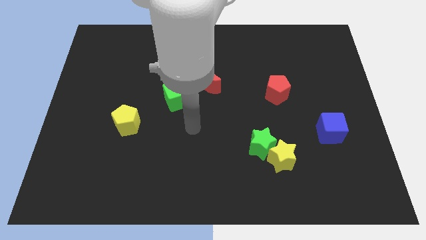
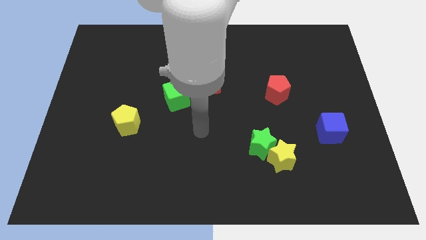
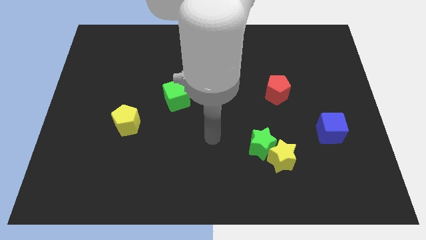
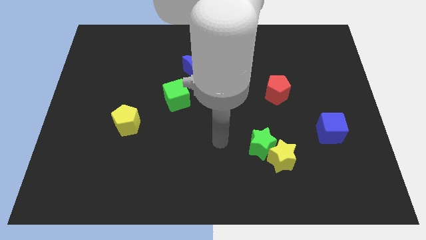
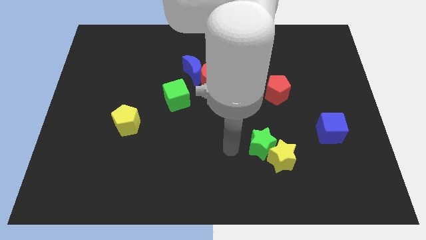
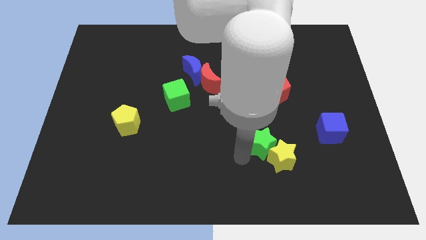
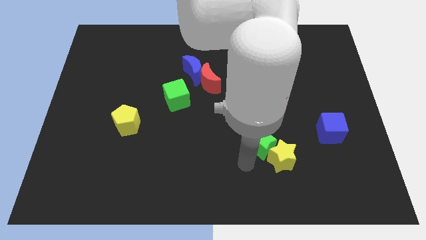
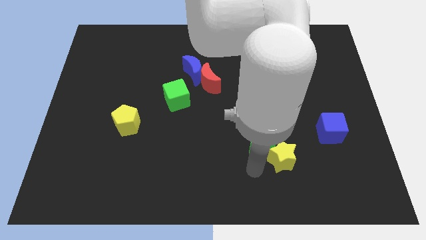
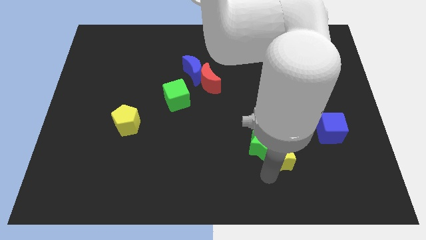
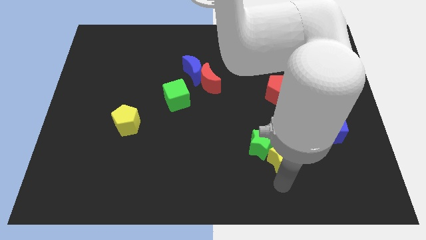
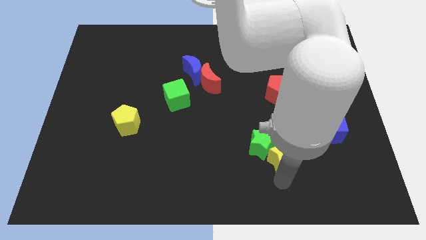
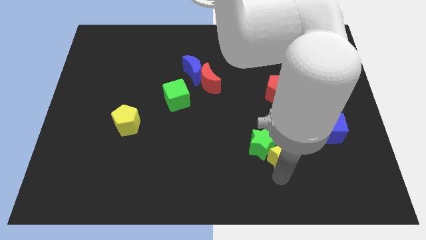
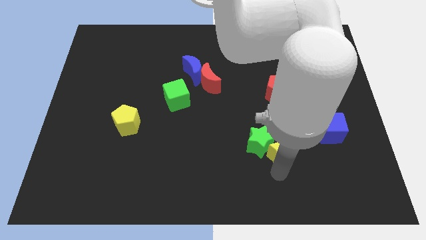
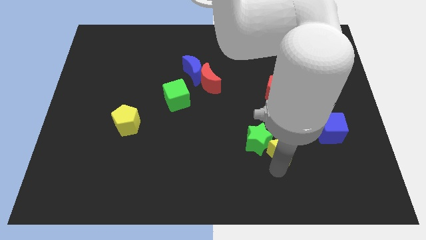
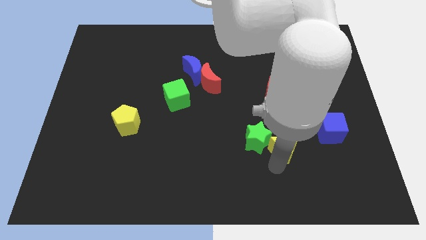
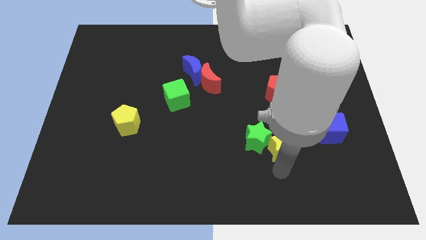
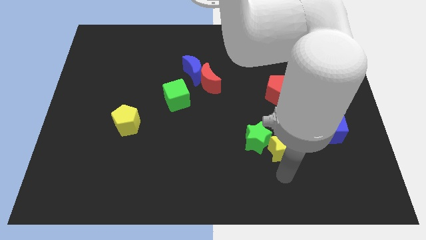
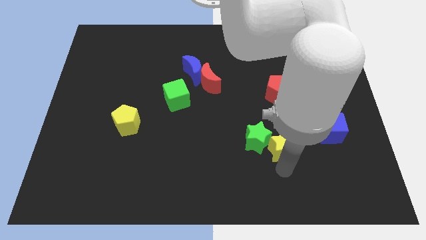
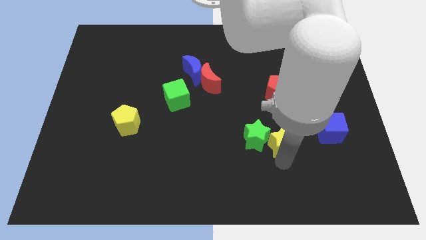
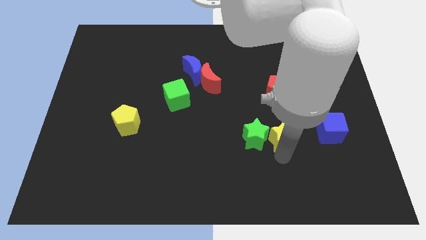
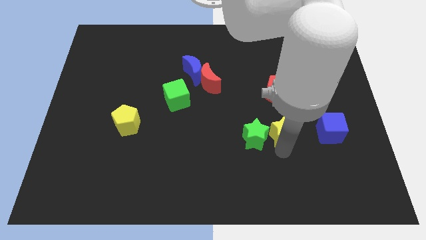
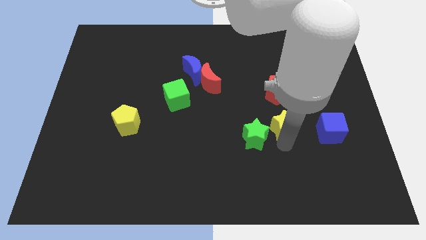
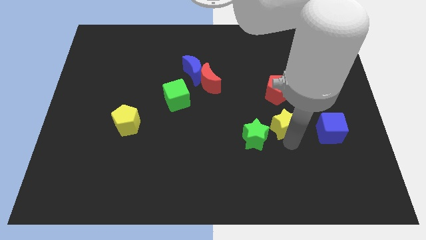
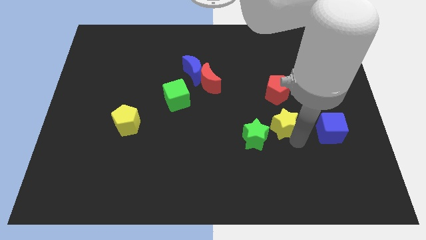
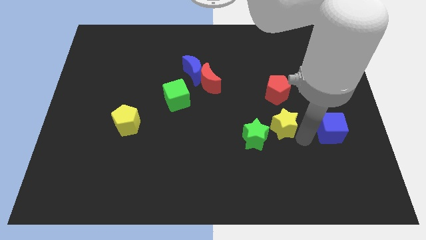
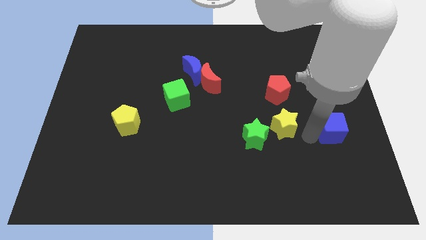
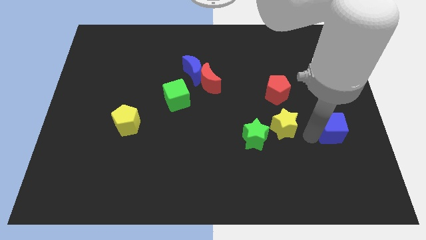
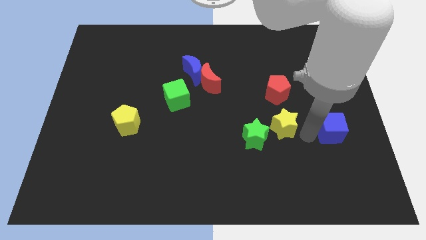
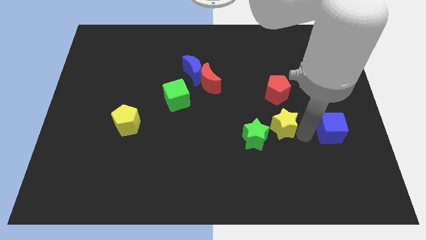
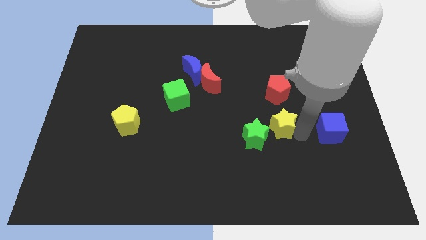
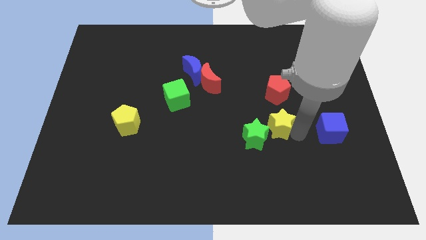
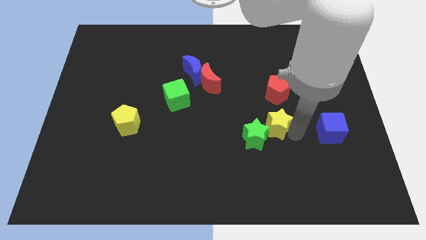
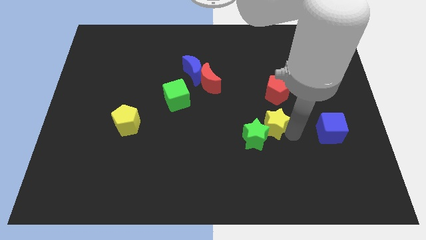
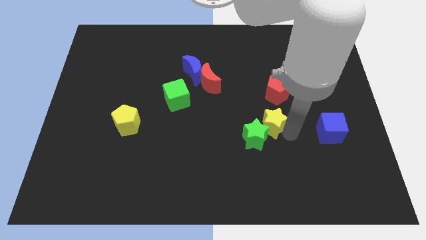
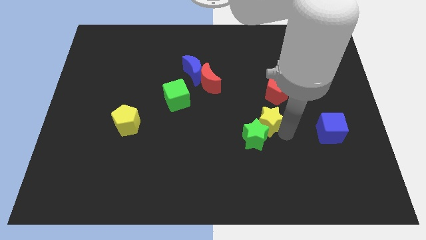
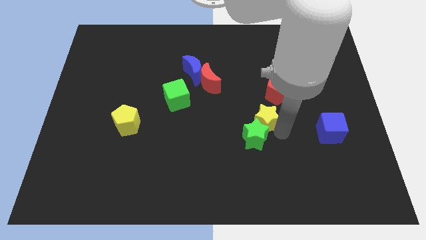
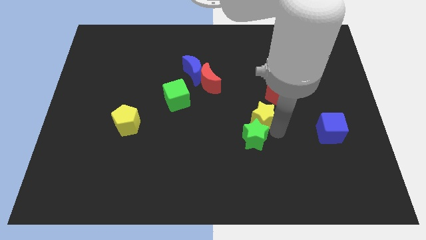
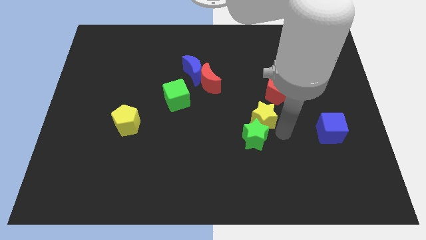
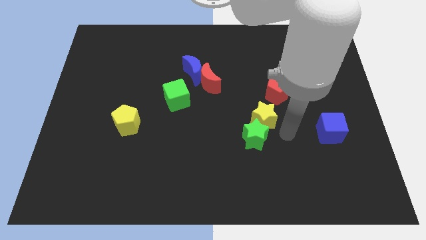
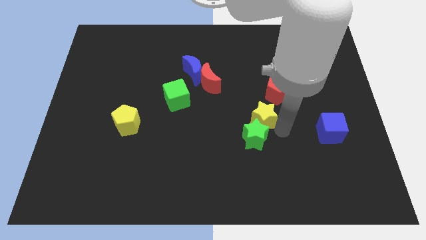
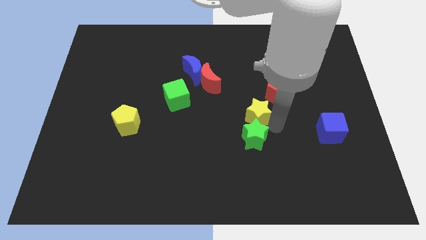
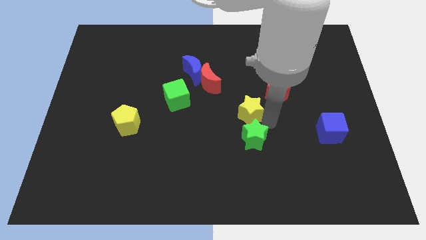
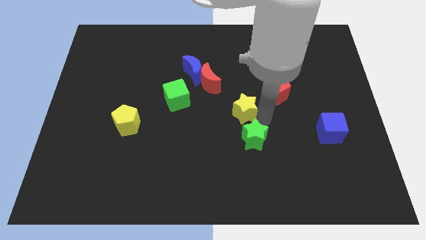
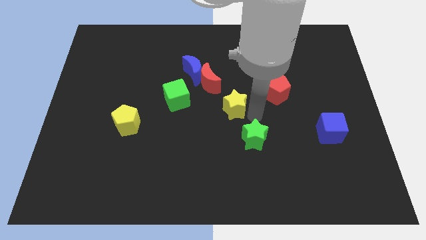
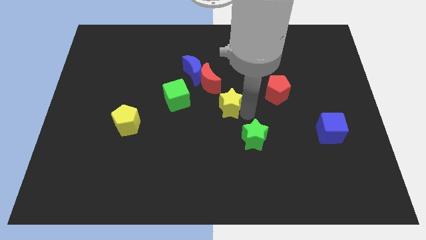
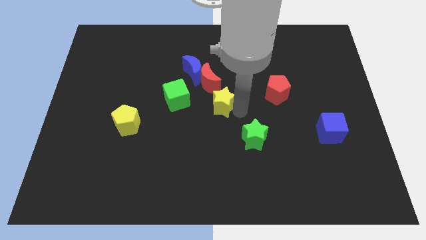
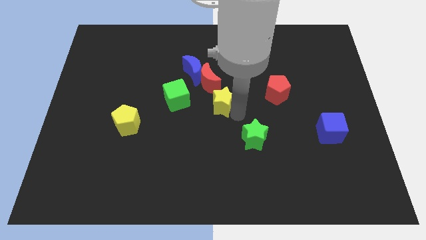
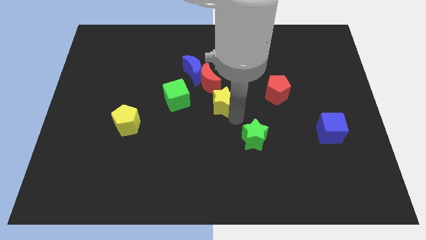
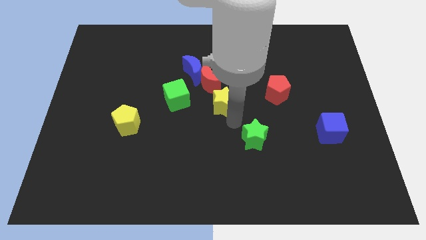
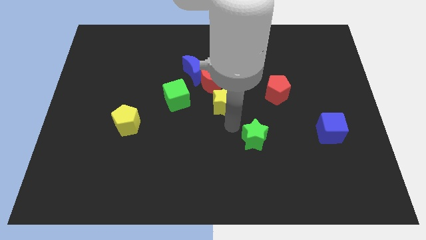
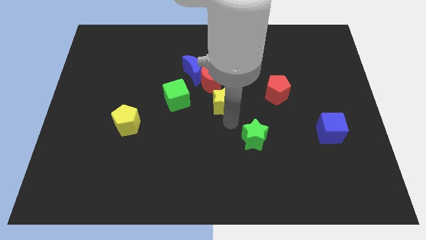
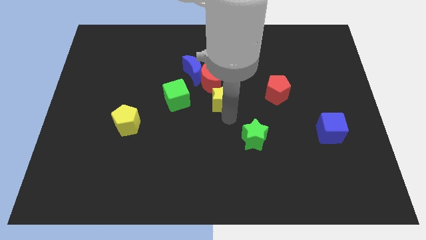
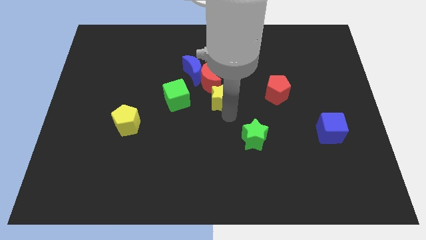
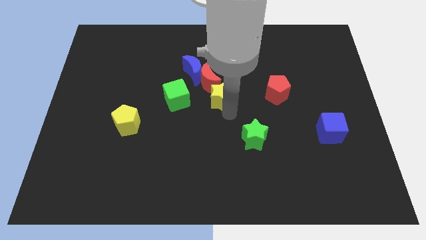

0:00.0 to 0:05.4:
put the yellow star next to the red moon

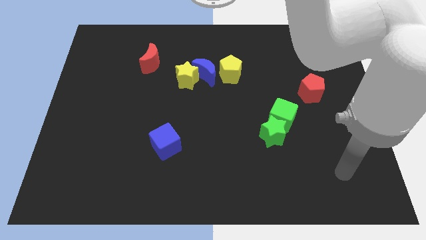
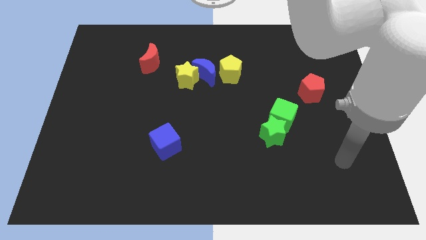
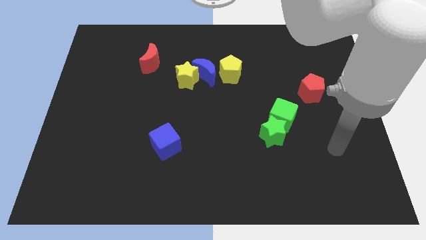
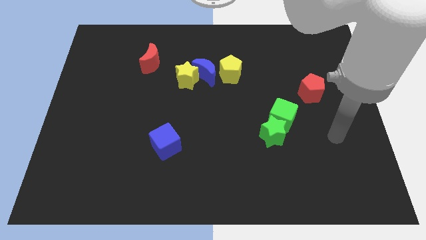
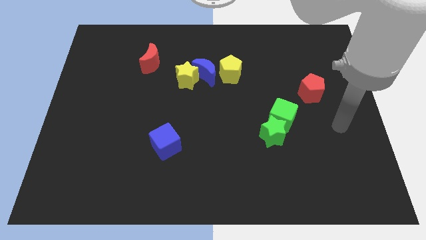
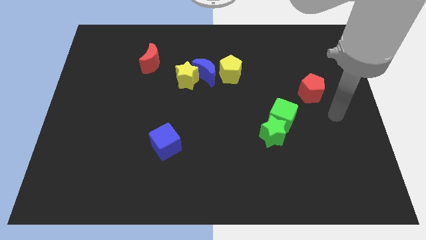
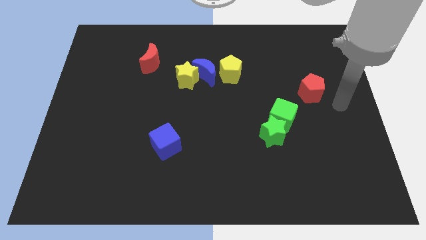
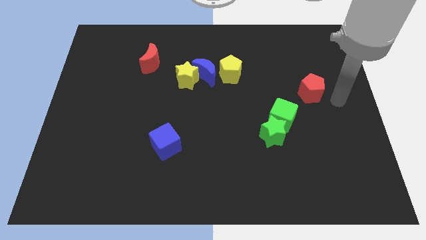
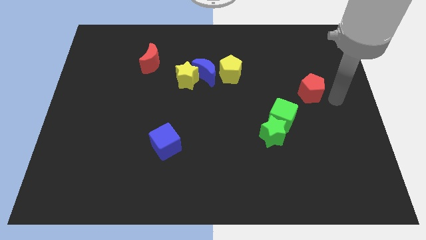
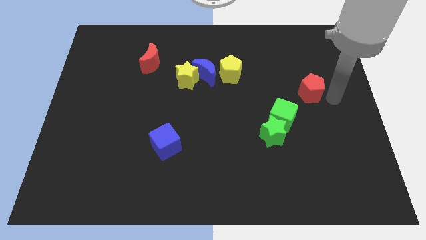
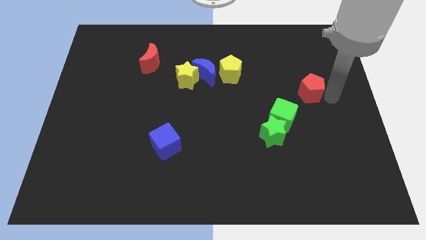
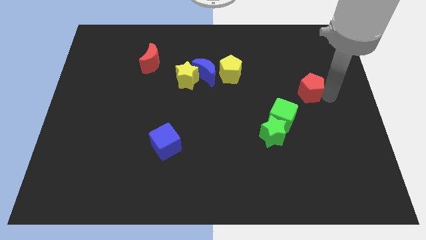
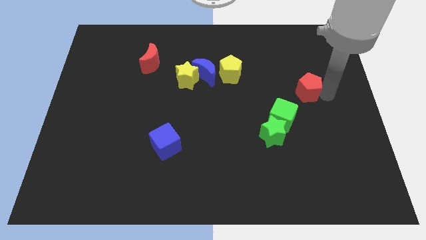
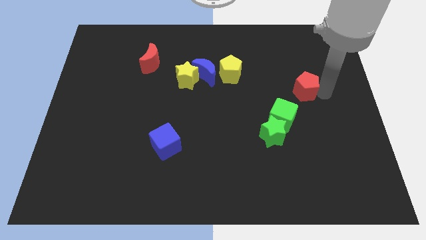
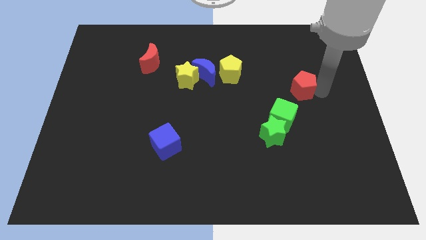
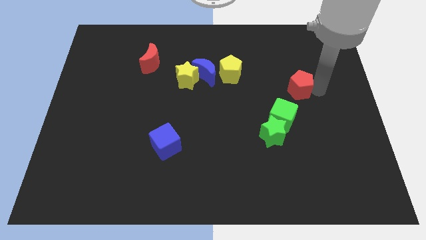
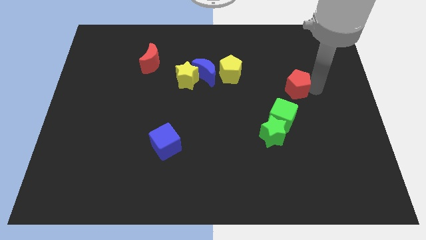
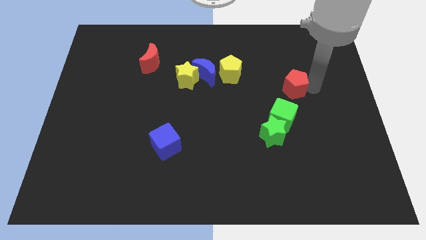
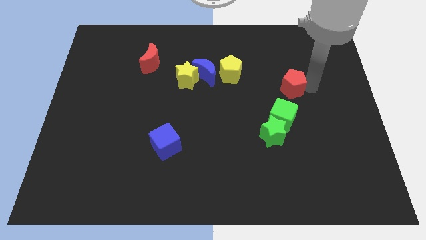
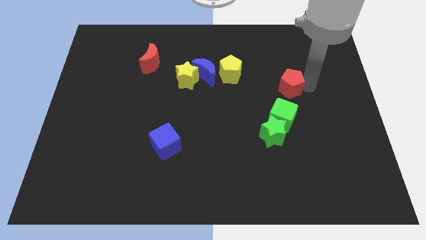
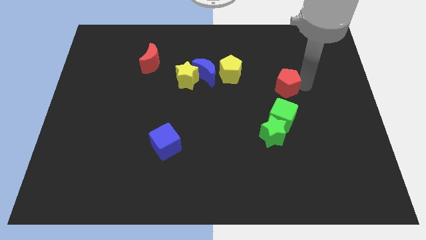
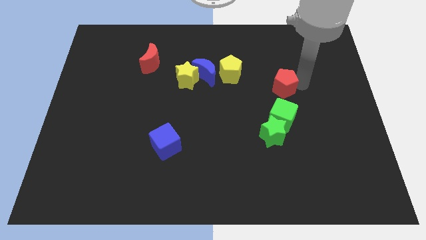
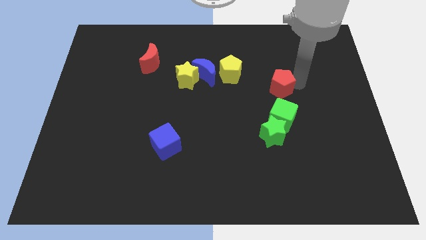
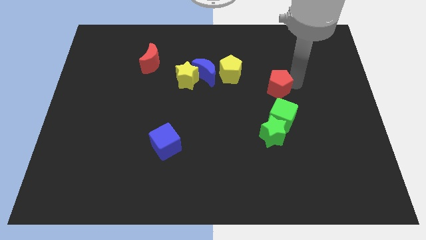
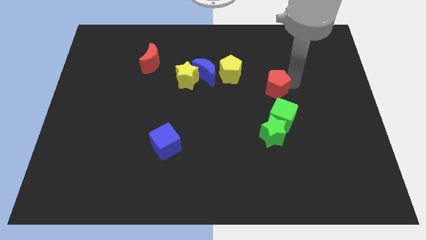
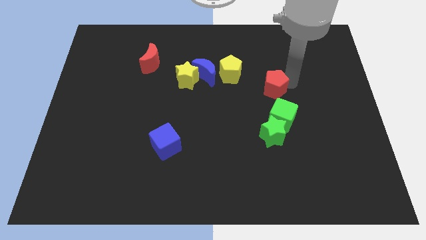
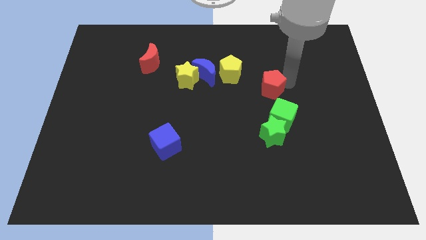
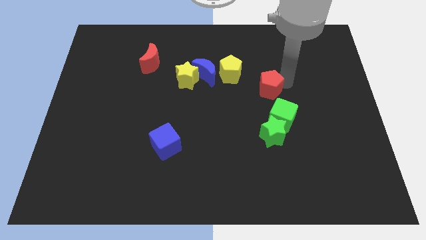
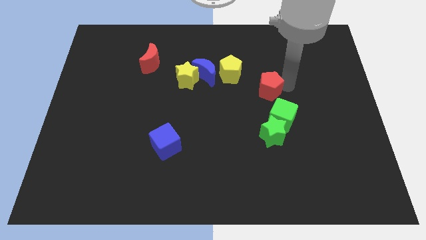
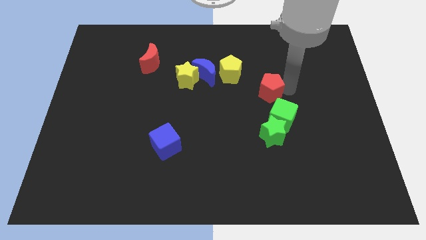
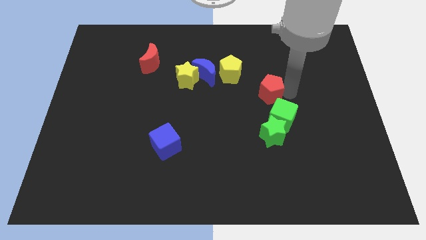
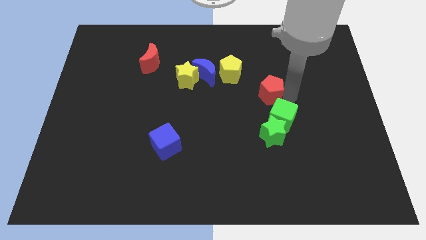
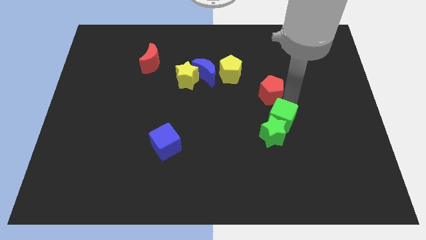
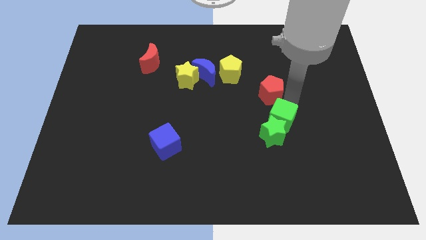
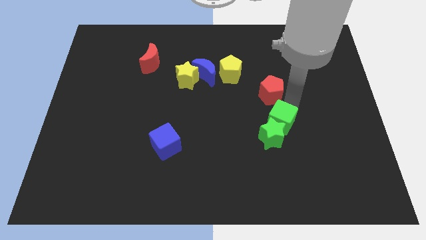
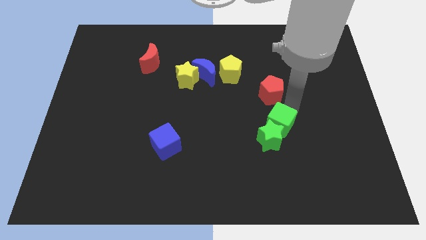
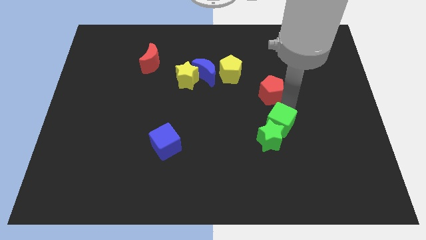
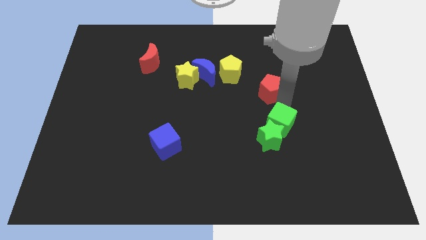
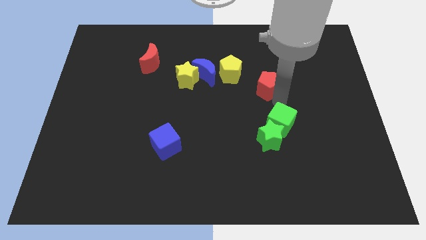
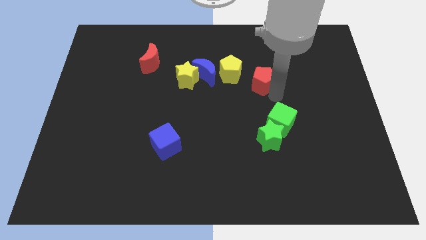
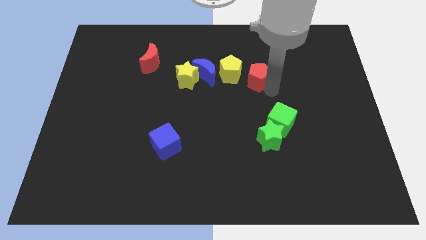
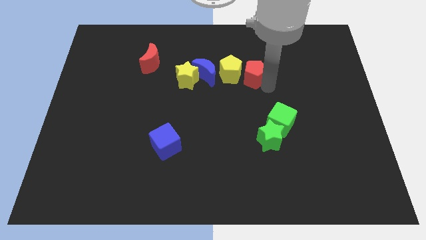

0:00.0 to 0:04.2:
push the red pentagon close to the yellow pentagon
